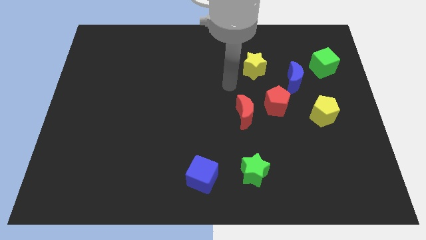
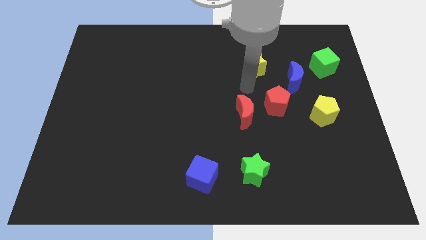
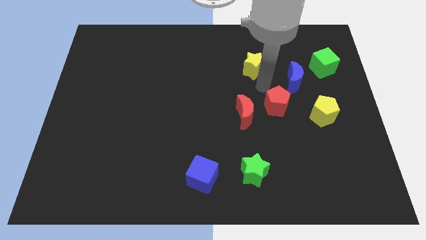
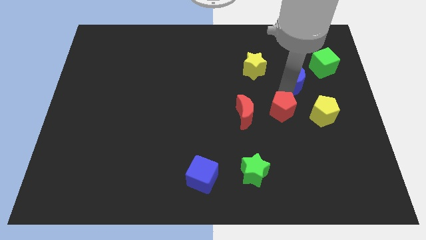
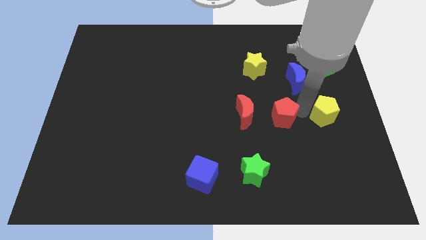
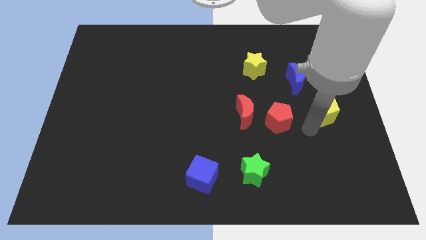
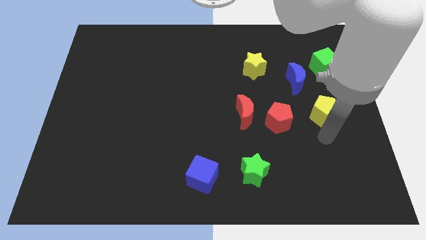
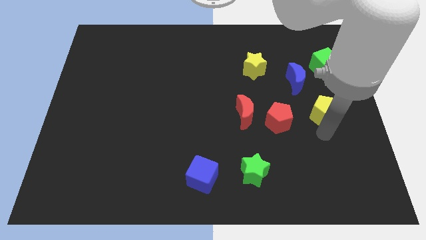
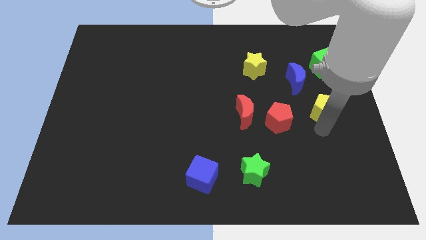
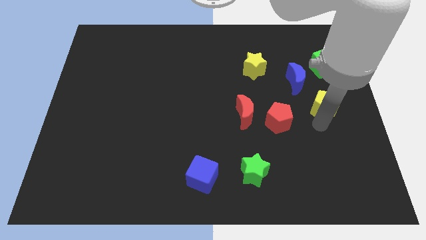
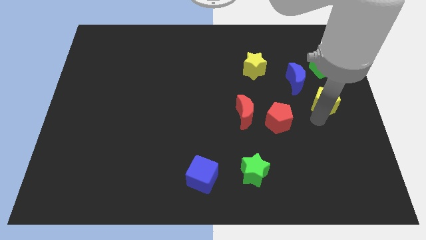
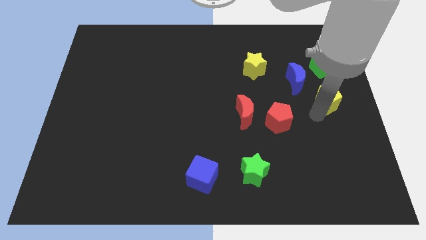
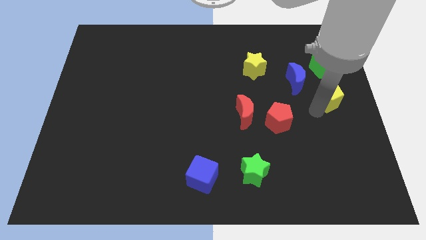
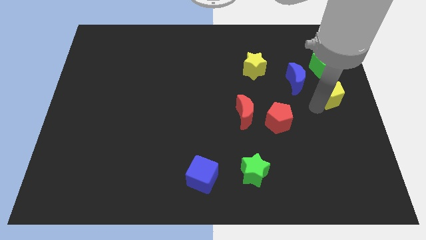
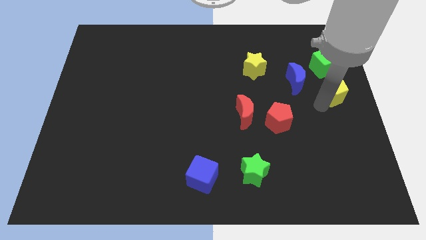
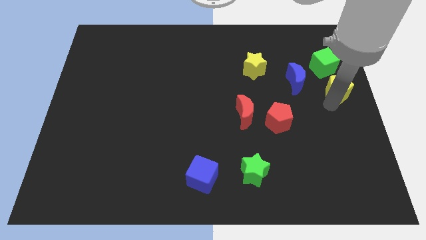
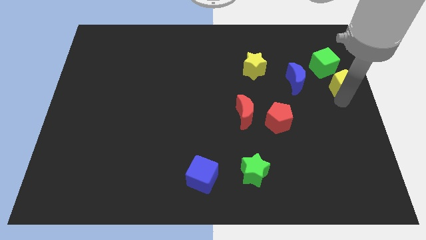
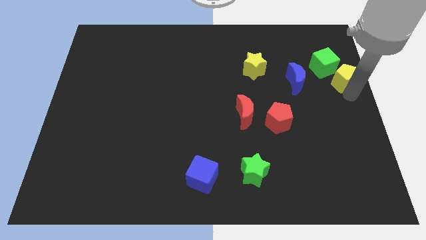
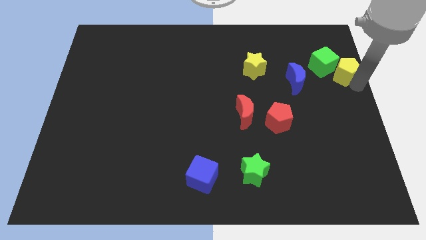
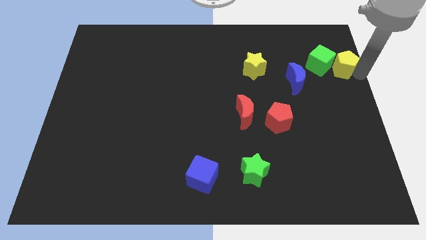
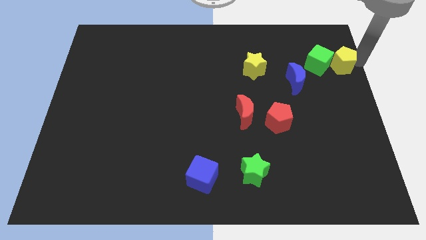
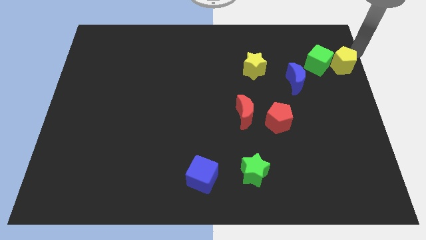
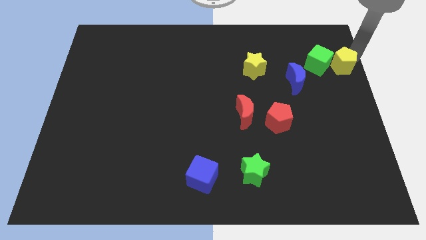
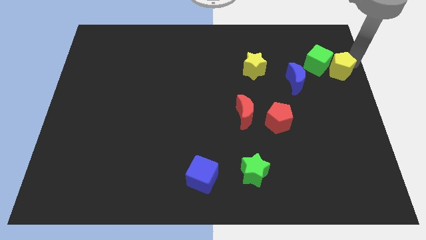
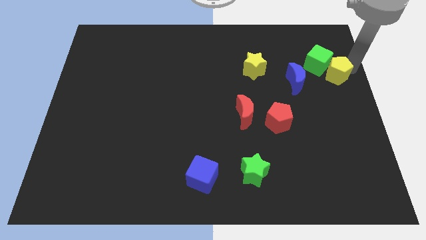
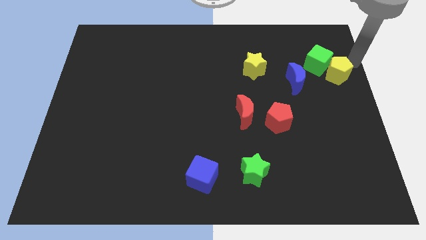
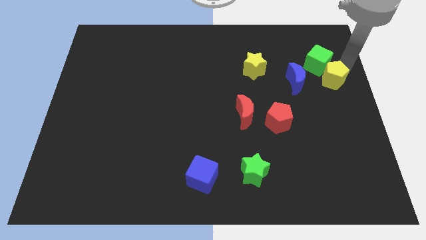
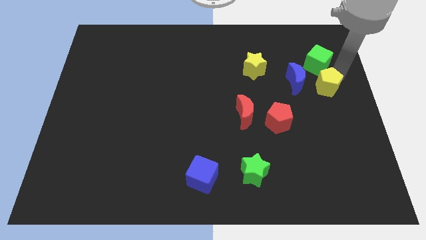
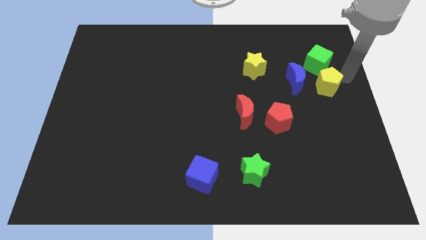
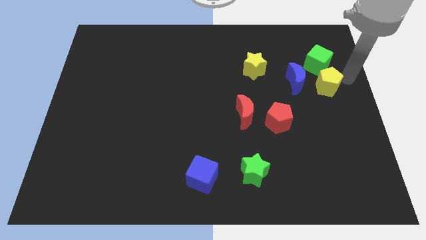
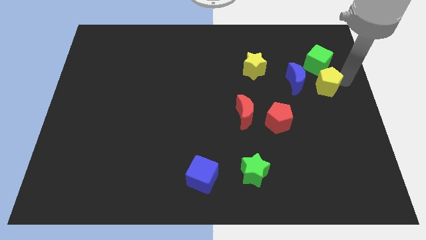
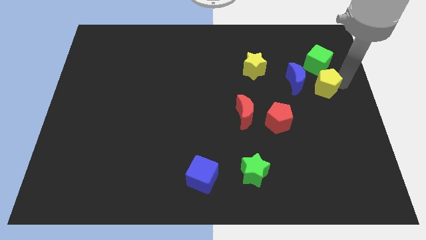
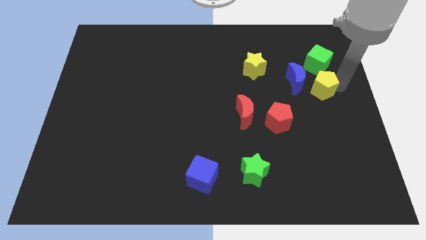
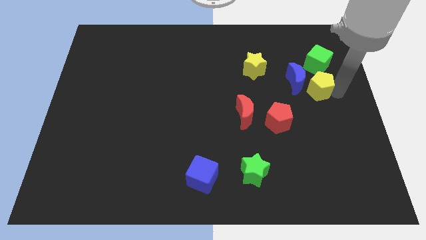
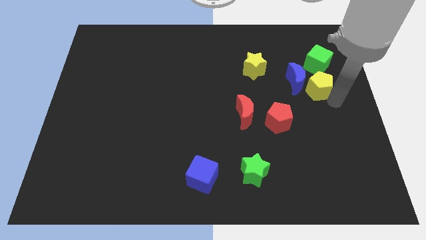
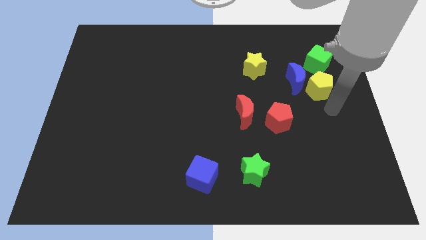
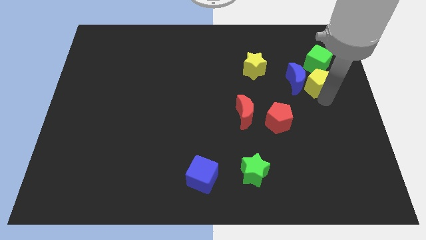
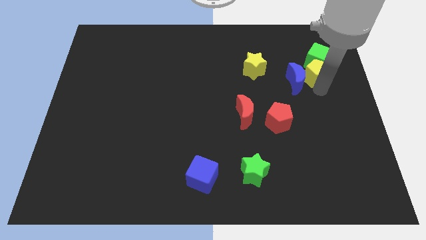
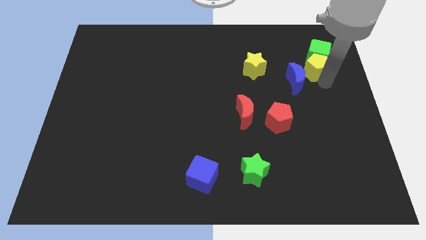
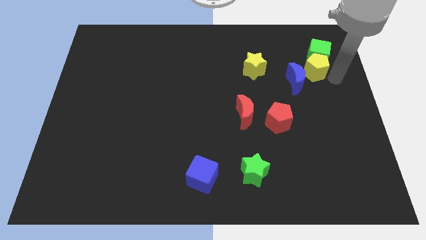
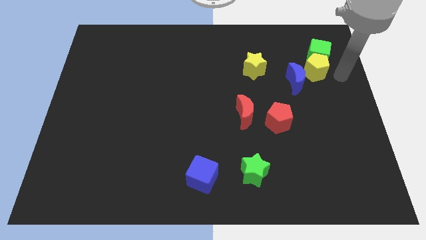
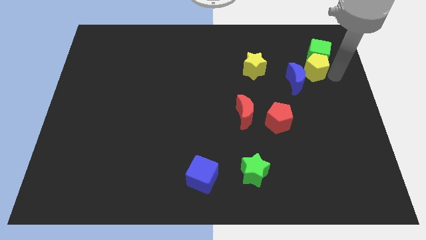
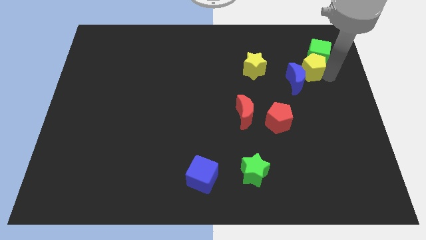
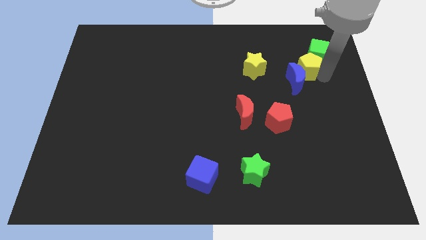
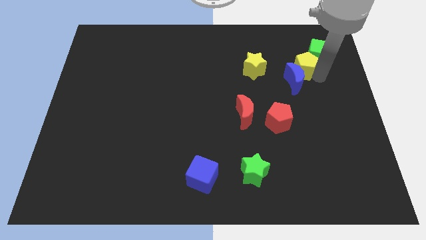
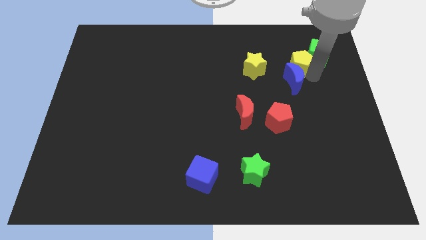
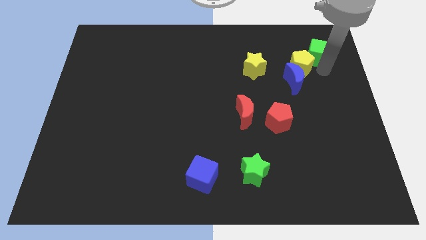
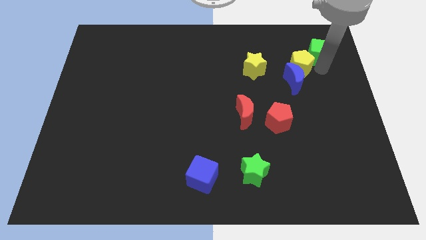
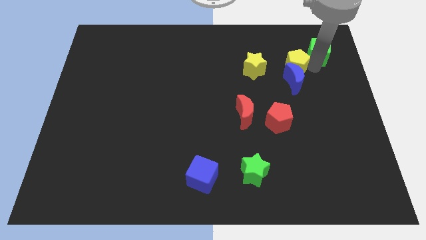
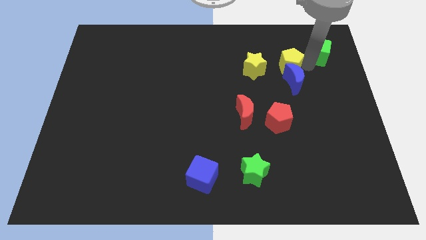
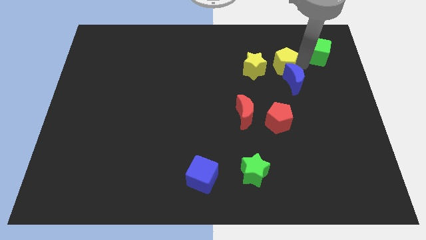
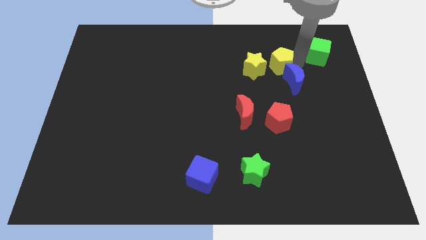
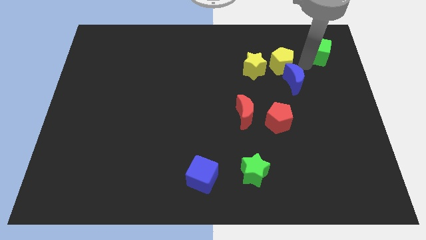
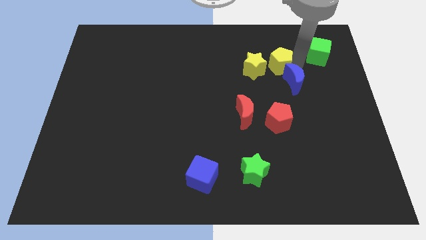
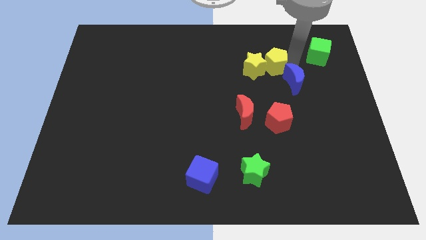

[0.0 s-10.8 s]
move the yellow pentagon close to the yellow star

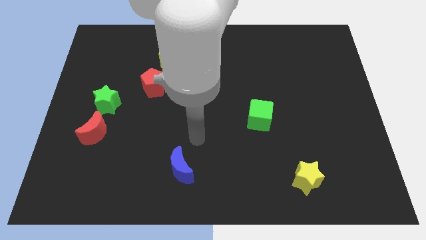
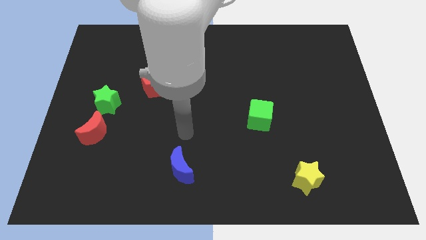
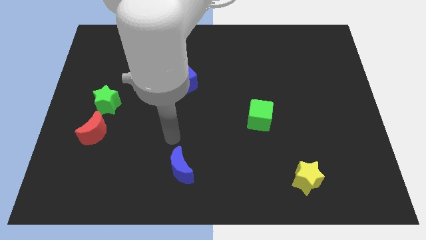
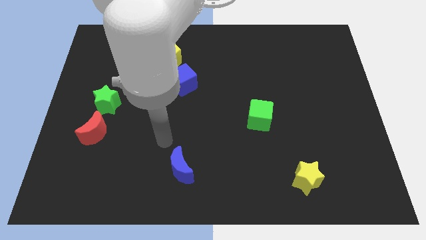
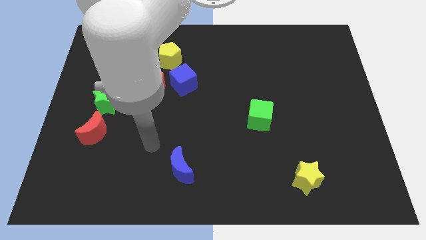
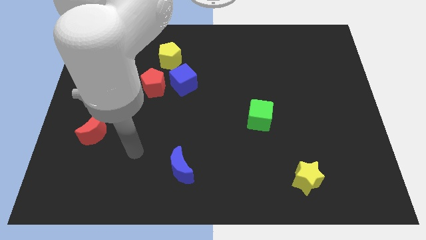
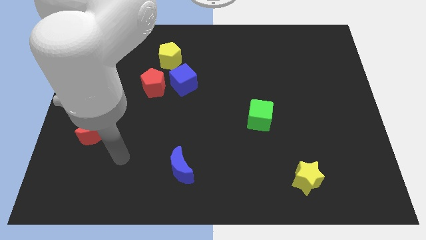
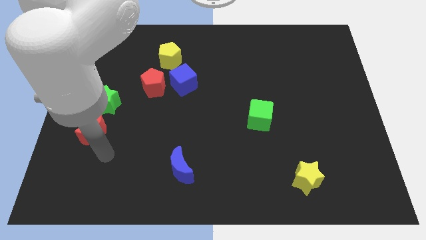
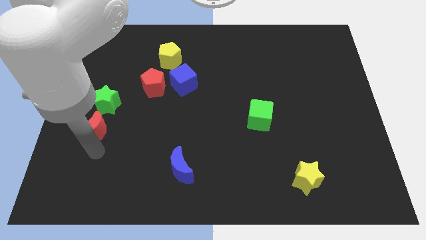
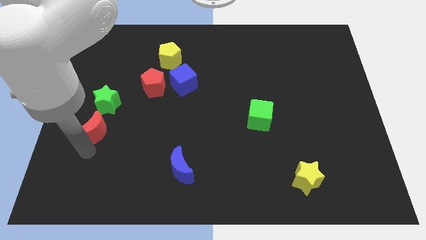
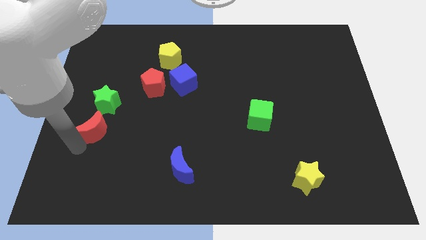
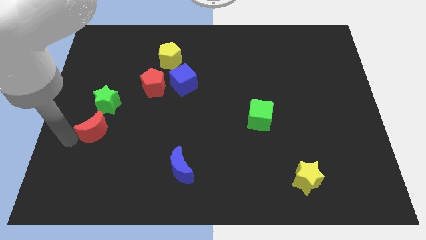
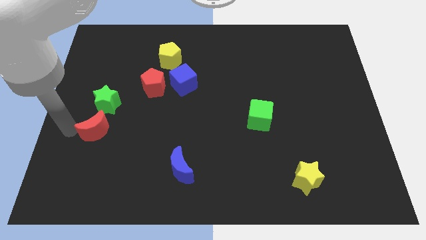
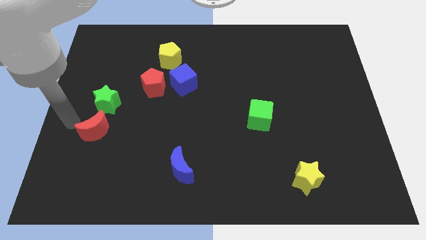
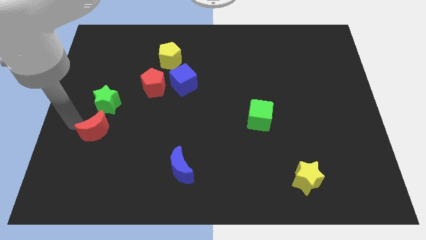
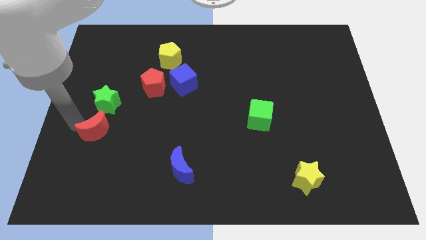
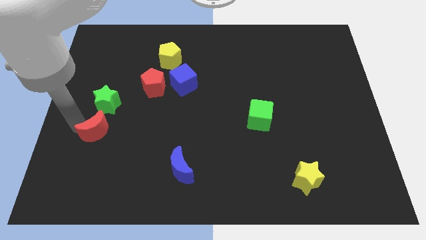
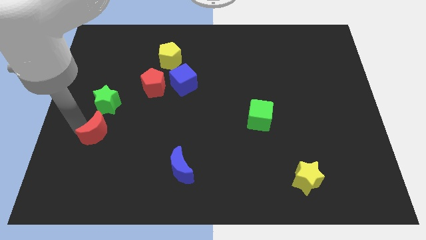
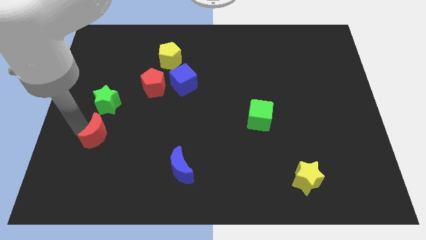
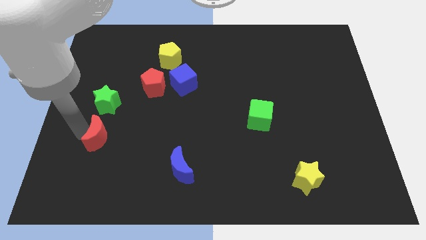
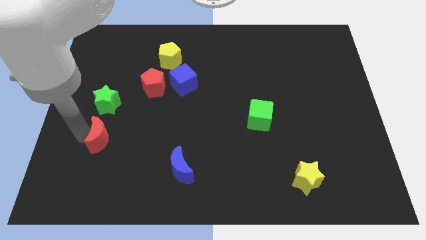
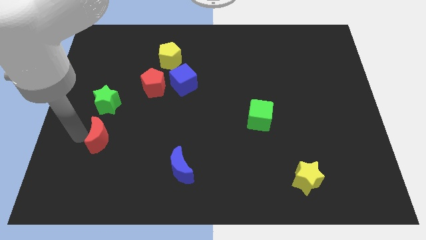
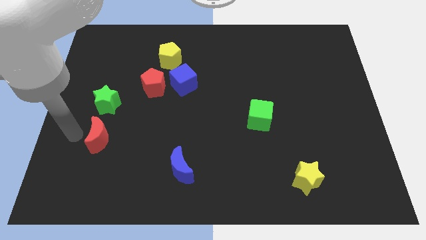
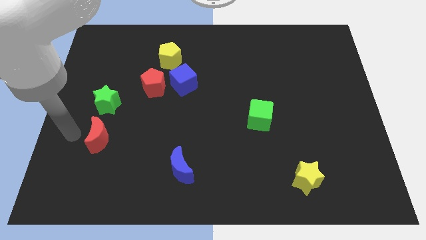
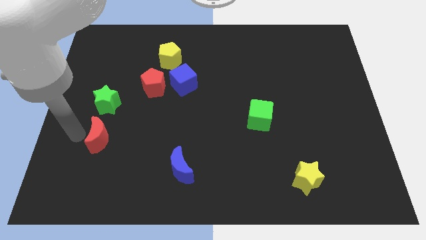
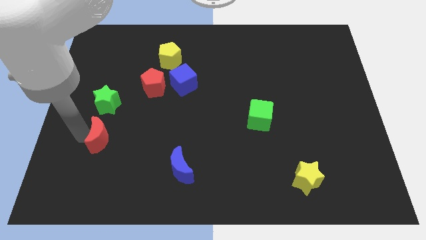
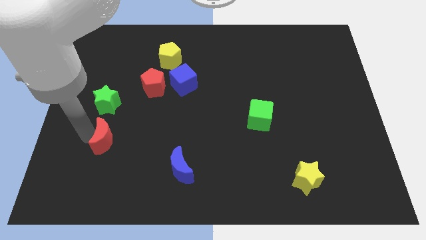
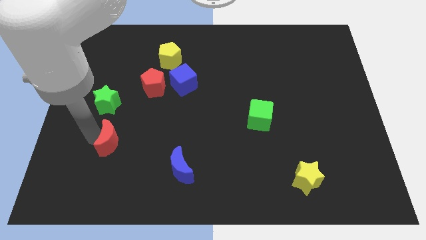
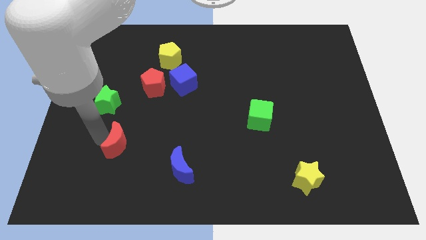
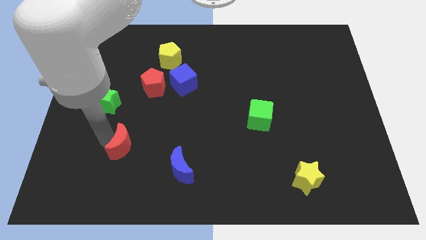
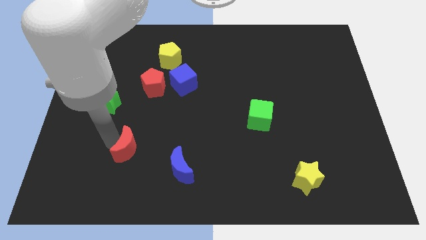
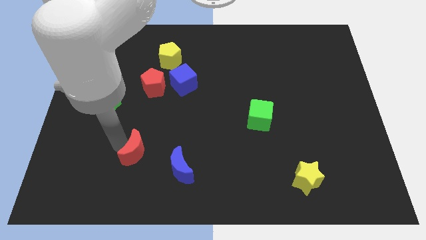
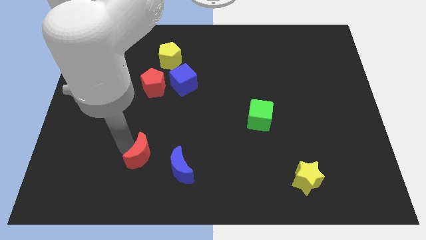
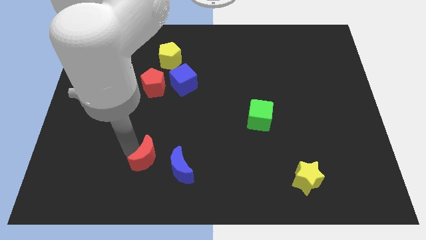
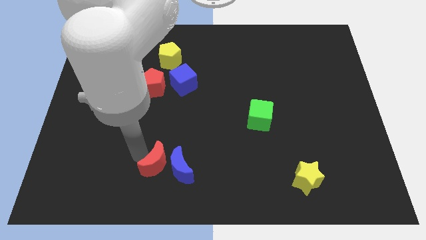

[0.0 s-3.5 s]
push the red moon to the blue moon
